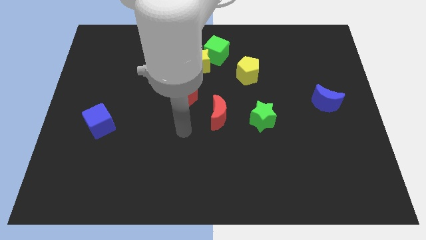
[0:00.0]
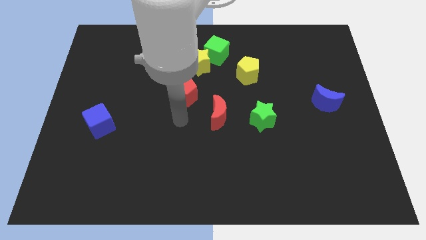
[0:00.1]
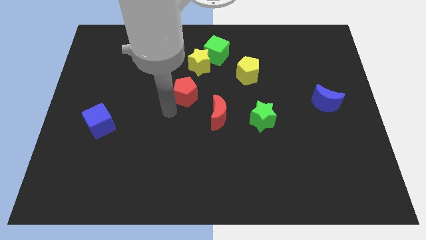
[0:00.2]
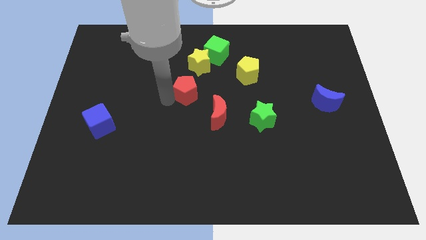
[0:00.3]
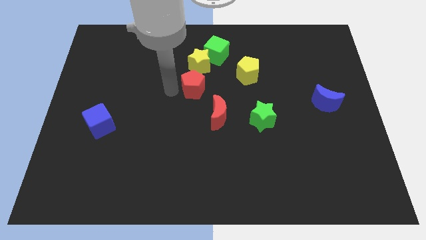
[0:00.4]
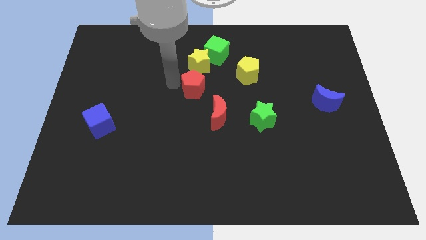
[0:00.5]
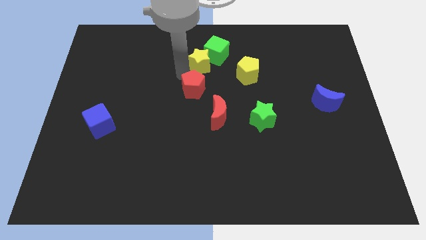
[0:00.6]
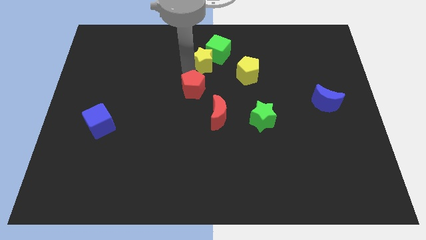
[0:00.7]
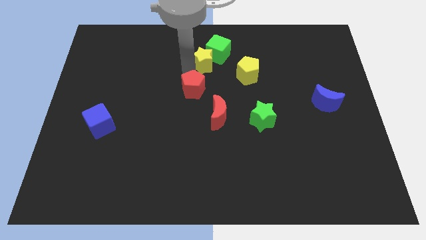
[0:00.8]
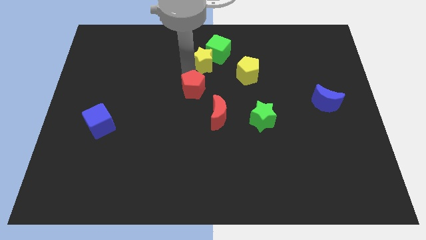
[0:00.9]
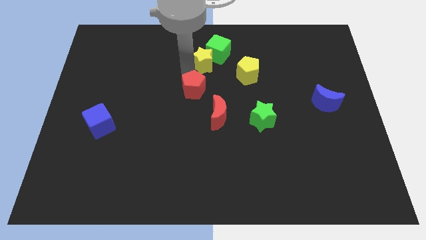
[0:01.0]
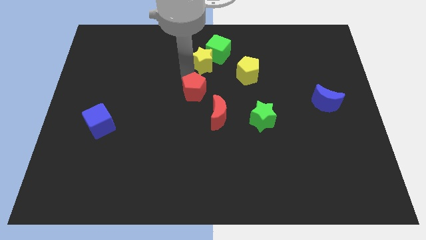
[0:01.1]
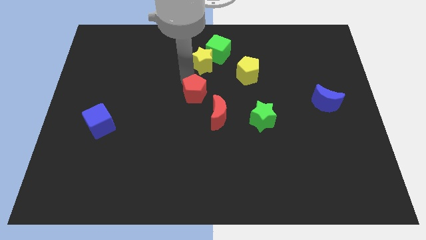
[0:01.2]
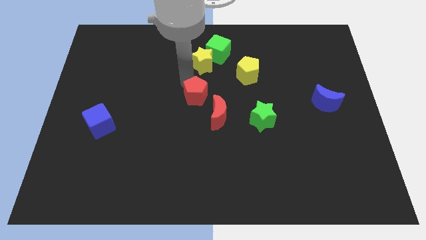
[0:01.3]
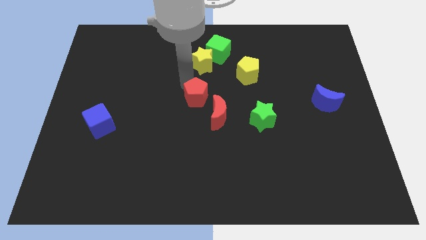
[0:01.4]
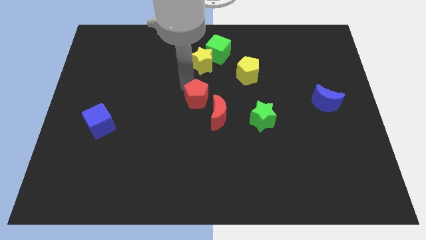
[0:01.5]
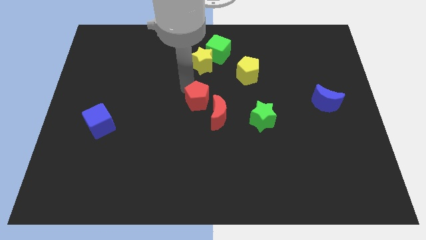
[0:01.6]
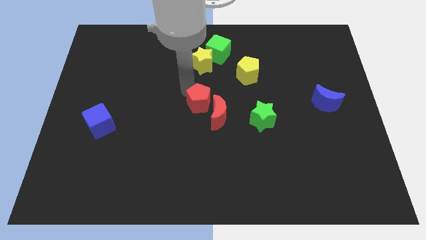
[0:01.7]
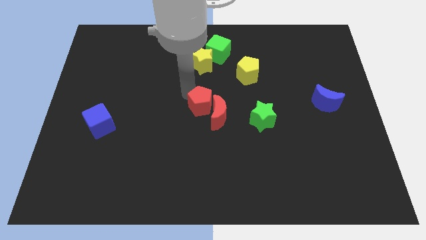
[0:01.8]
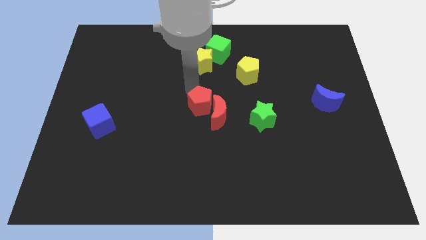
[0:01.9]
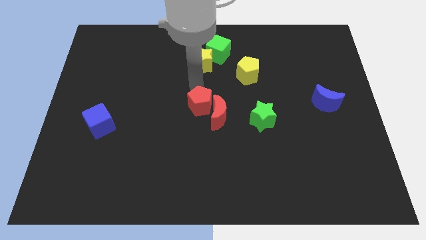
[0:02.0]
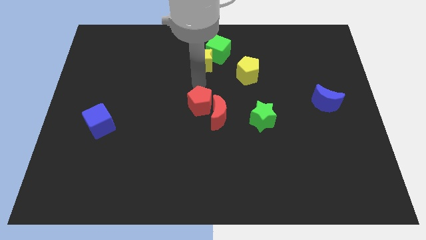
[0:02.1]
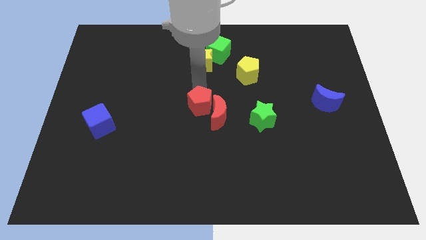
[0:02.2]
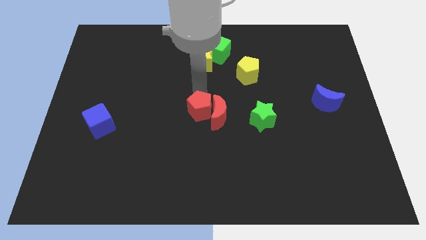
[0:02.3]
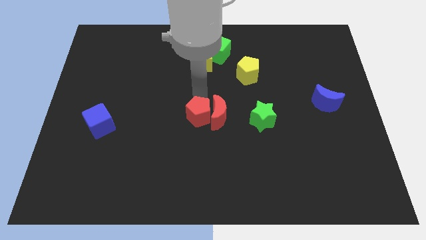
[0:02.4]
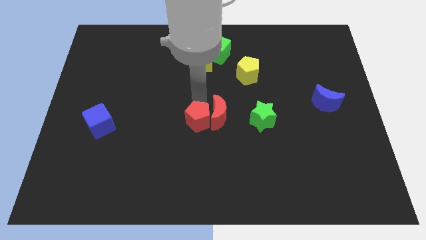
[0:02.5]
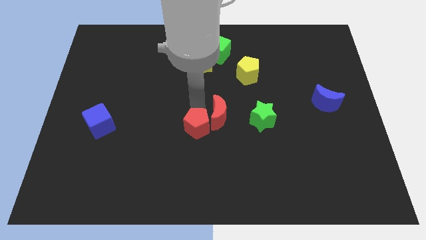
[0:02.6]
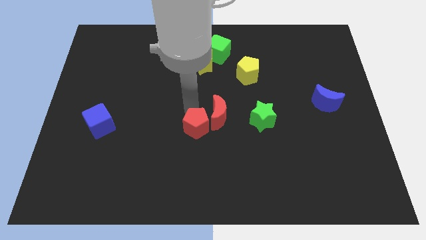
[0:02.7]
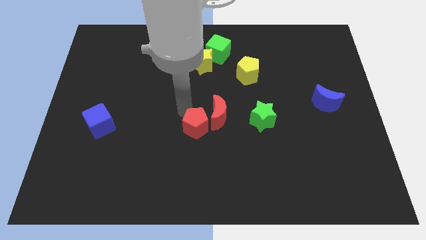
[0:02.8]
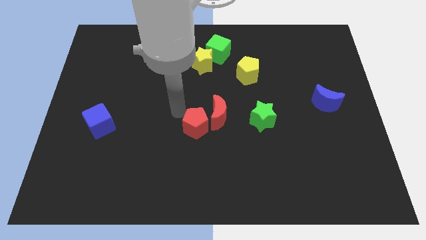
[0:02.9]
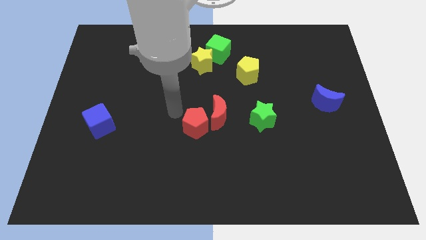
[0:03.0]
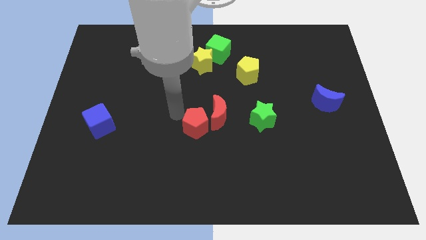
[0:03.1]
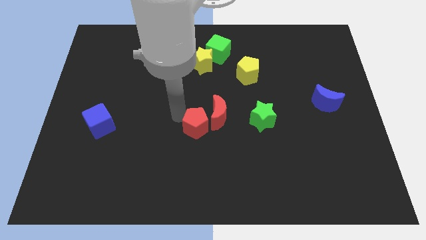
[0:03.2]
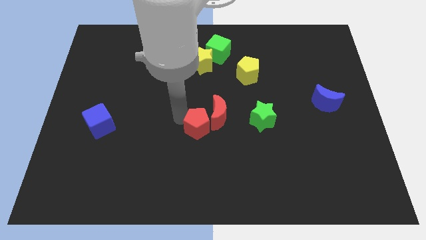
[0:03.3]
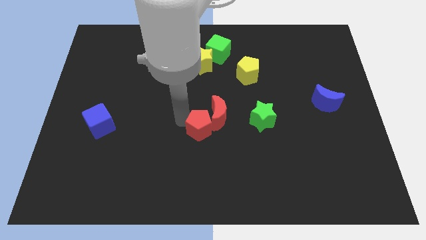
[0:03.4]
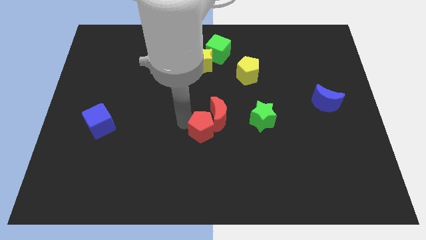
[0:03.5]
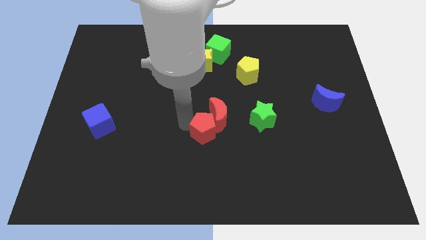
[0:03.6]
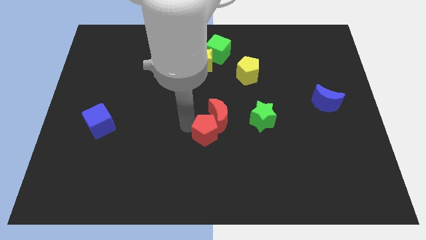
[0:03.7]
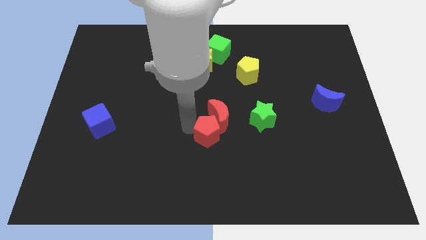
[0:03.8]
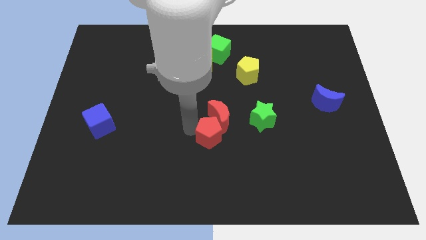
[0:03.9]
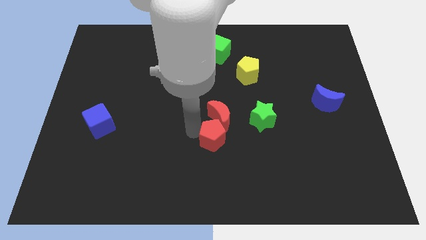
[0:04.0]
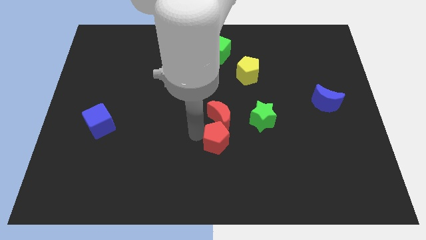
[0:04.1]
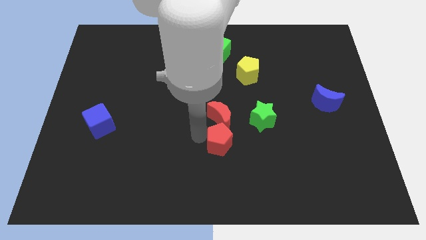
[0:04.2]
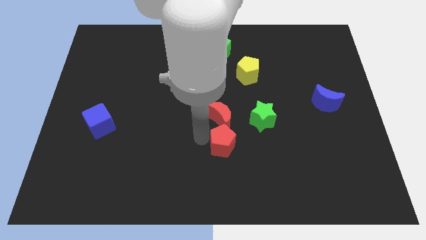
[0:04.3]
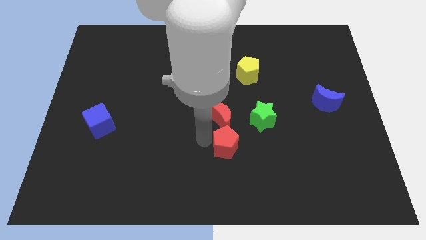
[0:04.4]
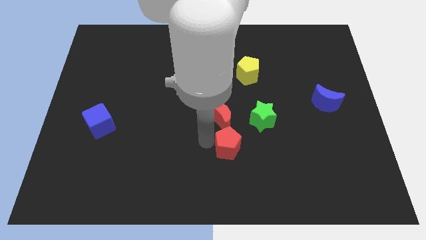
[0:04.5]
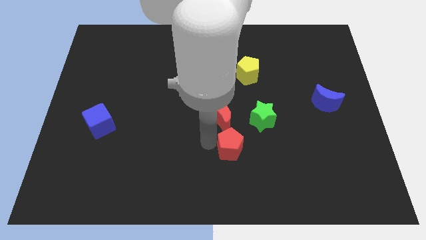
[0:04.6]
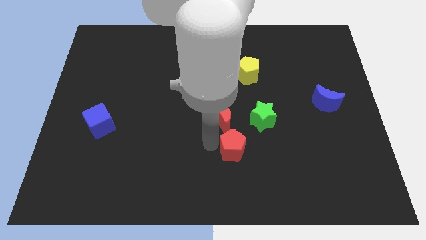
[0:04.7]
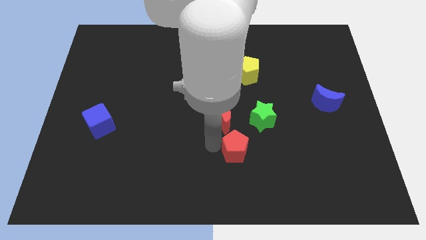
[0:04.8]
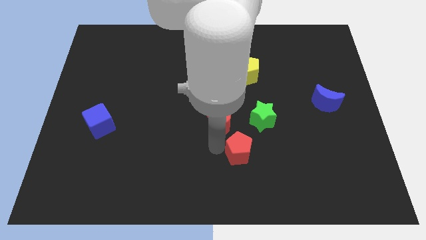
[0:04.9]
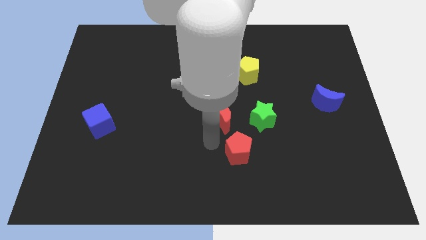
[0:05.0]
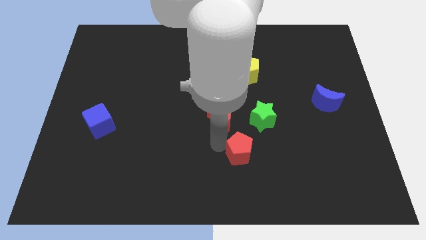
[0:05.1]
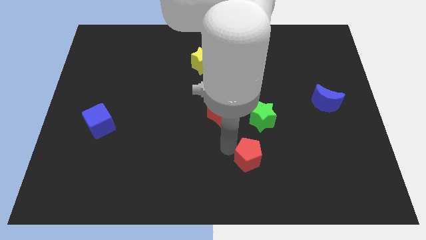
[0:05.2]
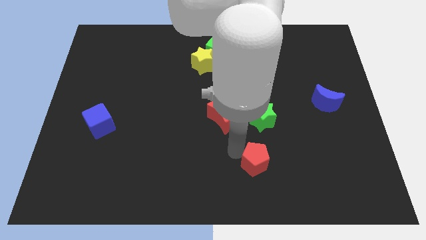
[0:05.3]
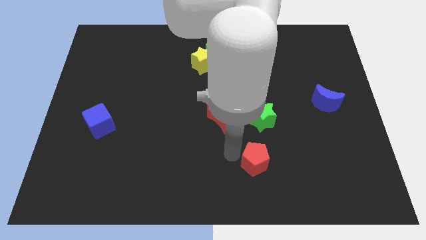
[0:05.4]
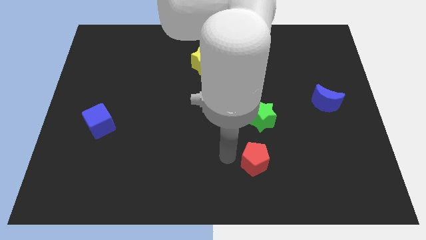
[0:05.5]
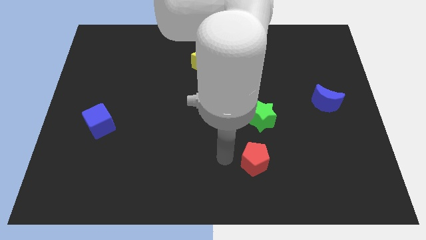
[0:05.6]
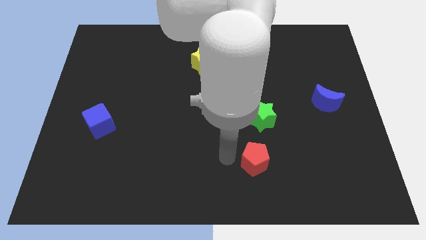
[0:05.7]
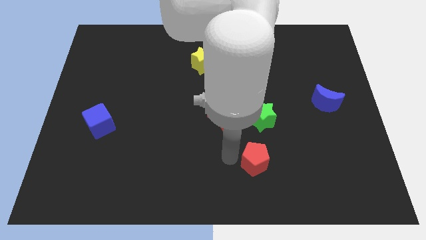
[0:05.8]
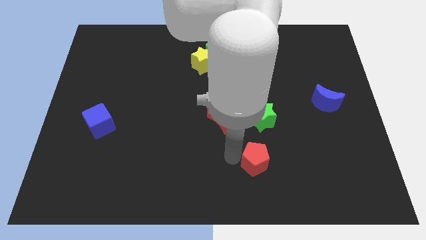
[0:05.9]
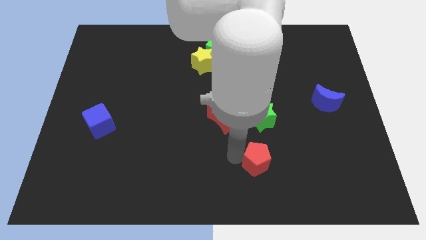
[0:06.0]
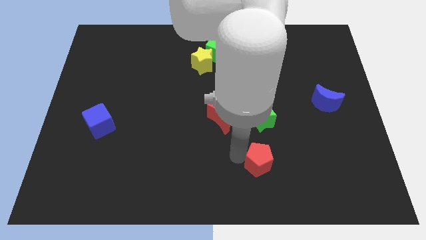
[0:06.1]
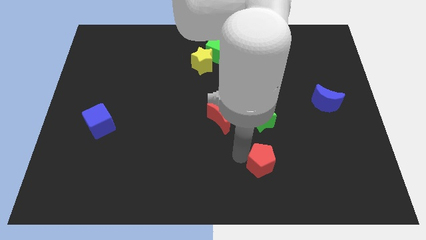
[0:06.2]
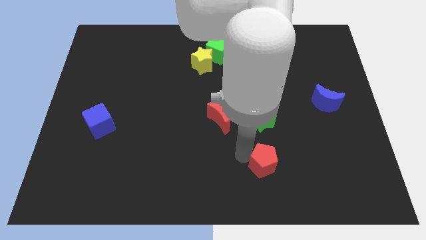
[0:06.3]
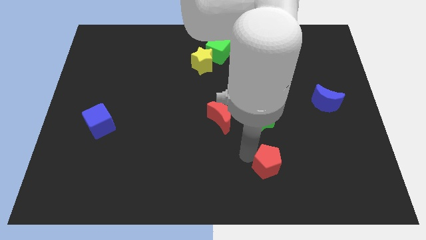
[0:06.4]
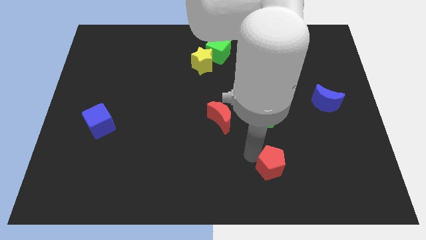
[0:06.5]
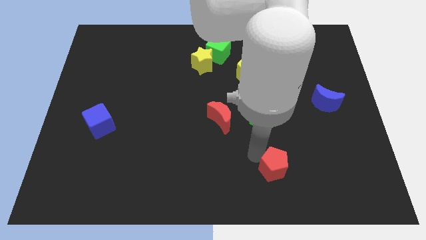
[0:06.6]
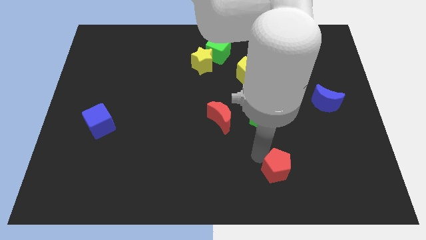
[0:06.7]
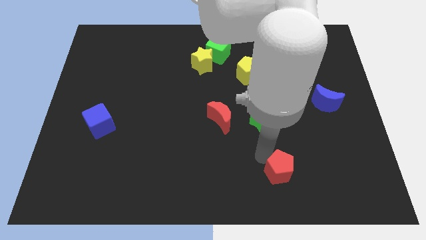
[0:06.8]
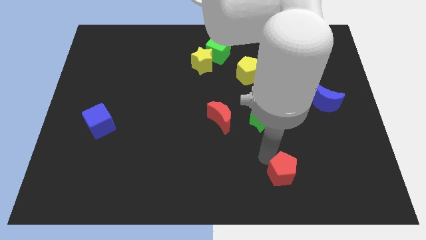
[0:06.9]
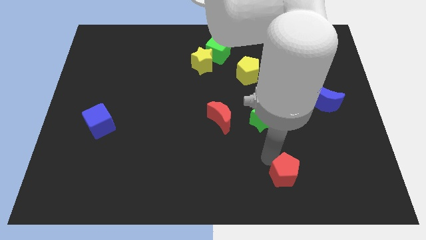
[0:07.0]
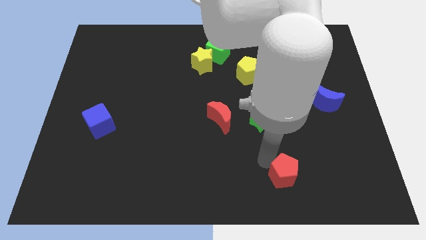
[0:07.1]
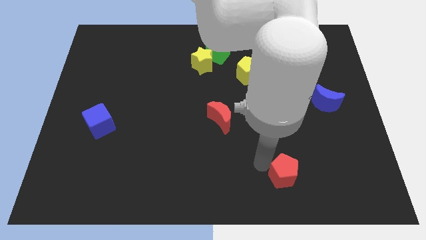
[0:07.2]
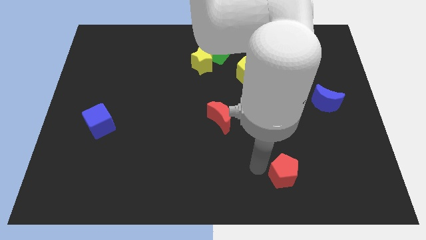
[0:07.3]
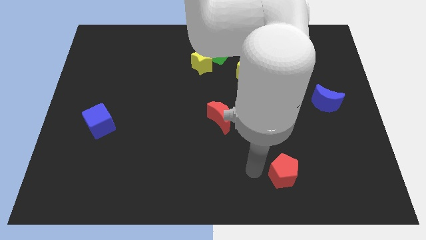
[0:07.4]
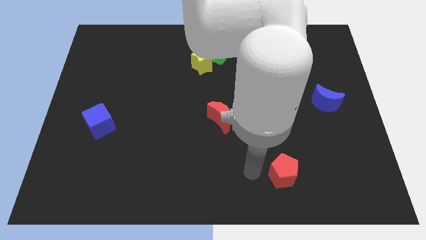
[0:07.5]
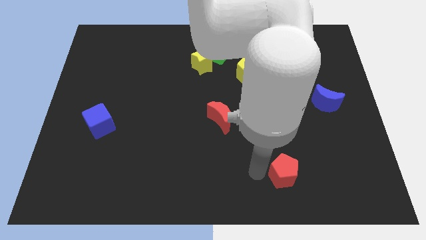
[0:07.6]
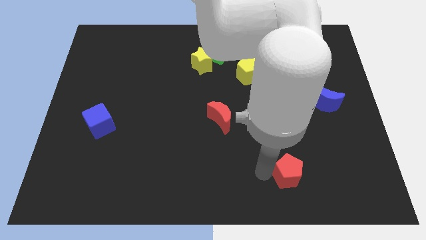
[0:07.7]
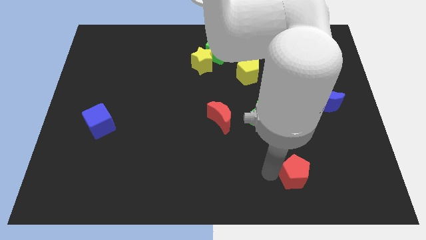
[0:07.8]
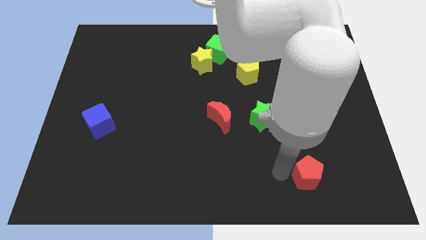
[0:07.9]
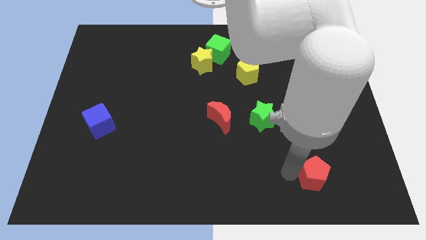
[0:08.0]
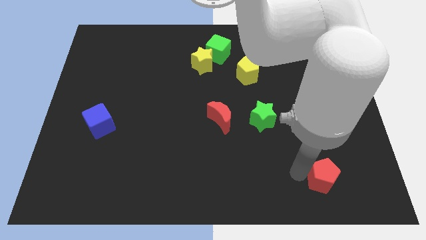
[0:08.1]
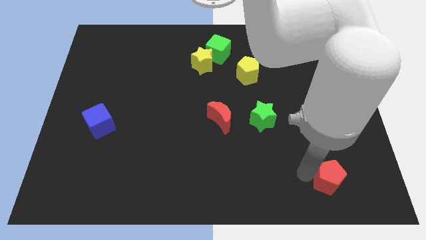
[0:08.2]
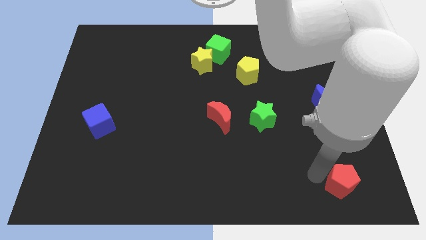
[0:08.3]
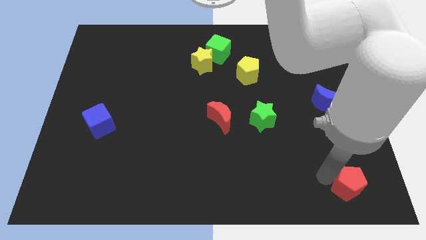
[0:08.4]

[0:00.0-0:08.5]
slide the red pentagon to the bottom right
